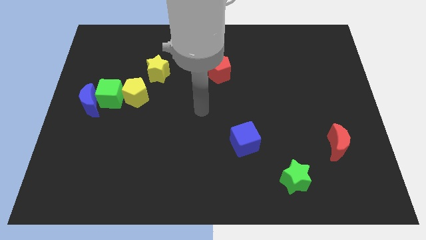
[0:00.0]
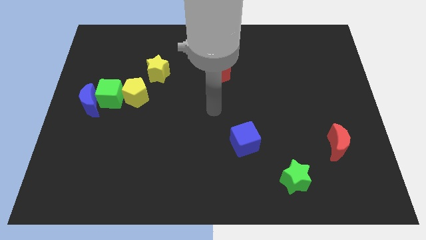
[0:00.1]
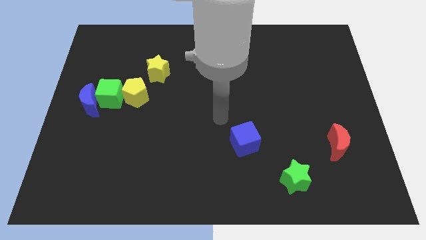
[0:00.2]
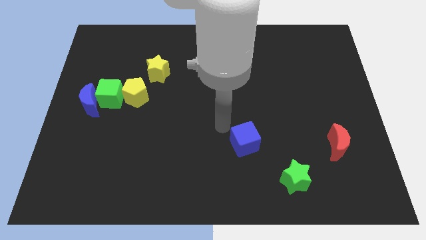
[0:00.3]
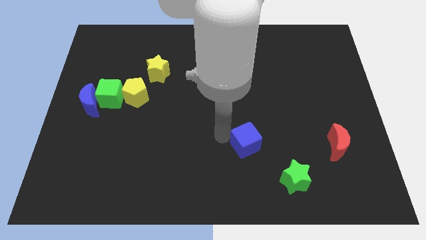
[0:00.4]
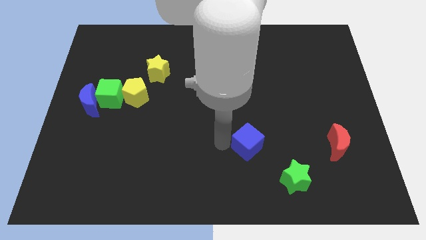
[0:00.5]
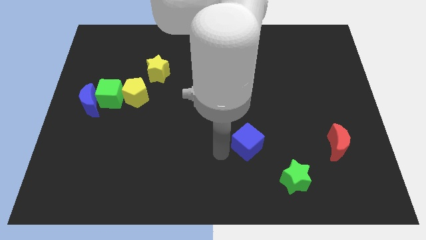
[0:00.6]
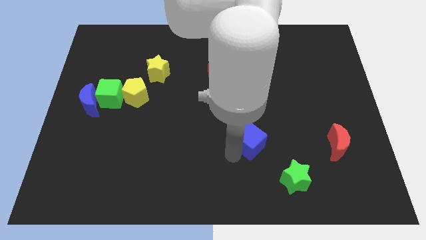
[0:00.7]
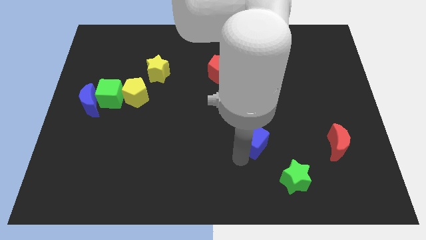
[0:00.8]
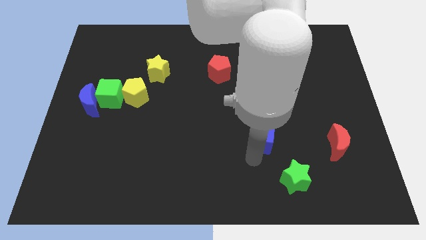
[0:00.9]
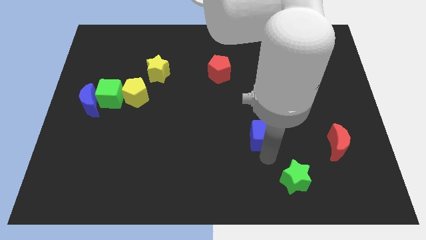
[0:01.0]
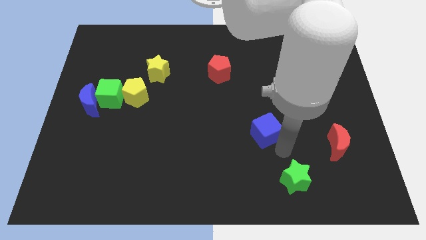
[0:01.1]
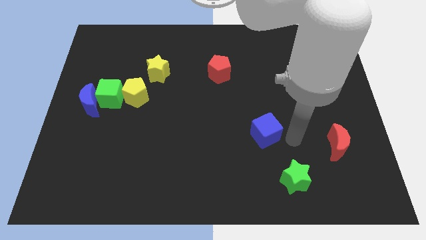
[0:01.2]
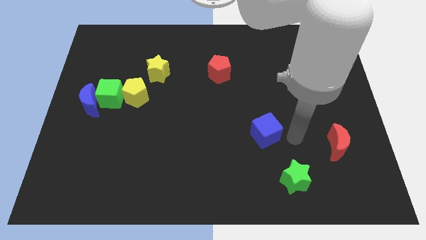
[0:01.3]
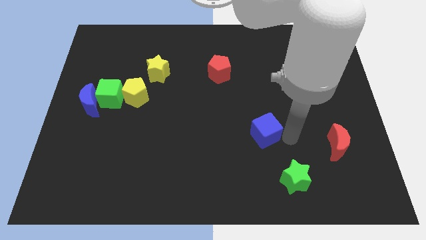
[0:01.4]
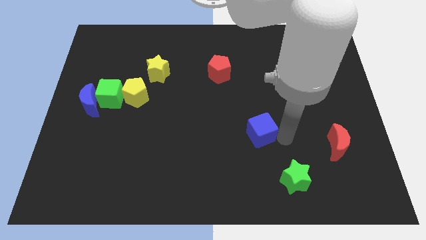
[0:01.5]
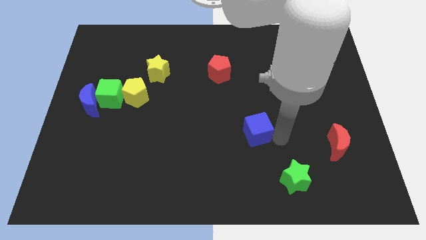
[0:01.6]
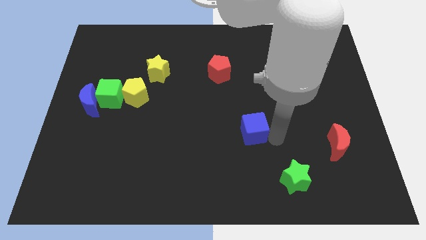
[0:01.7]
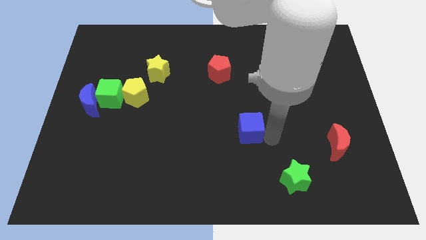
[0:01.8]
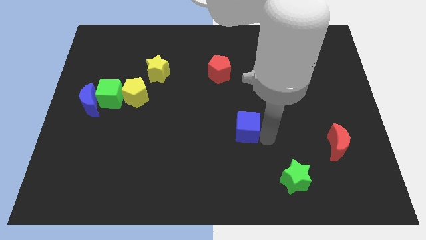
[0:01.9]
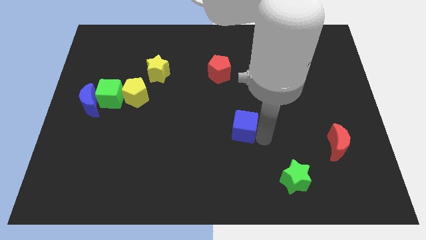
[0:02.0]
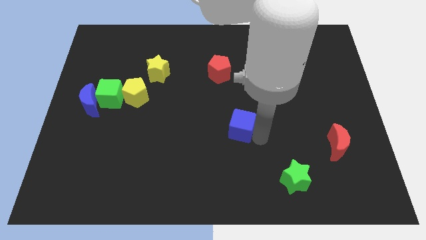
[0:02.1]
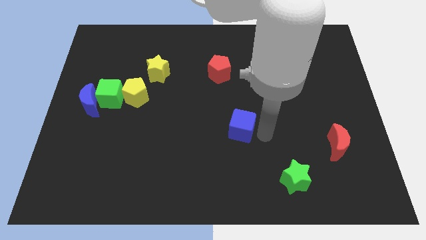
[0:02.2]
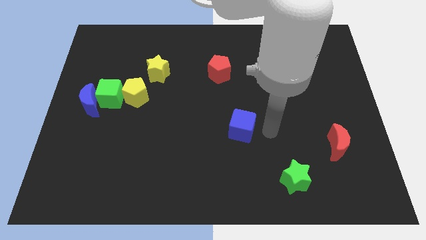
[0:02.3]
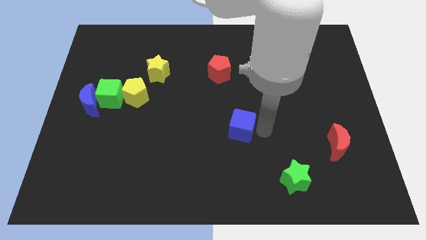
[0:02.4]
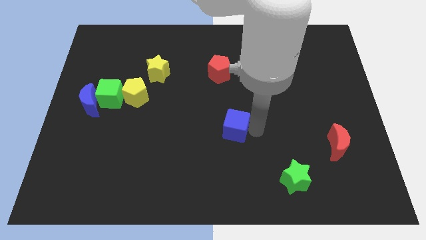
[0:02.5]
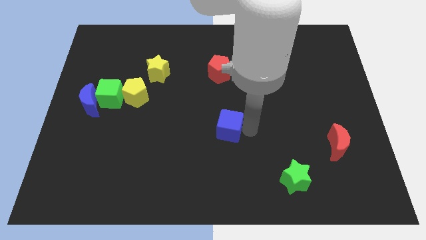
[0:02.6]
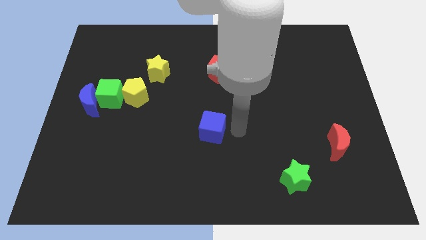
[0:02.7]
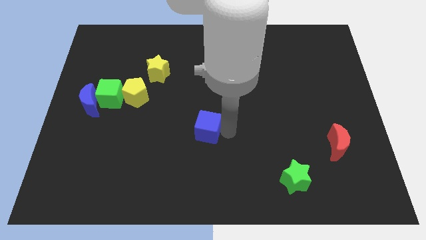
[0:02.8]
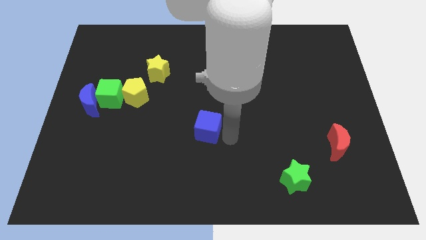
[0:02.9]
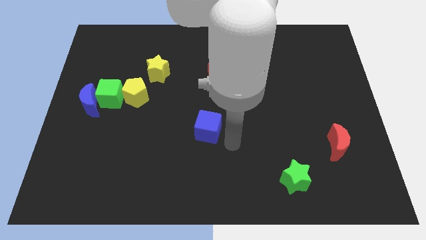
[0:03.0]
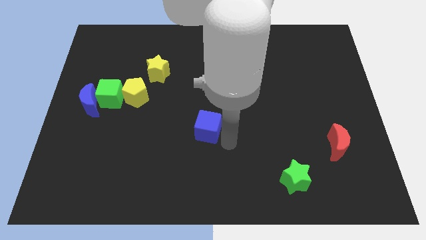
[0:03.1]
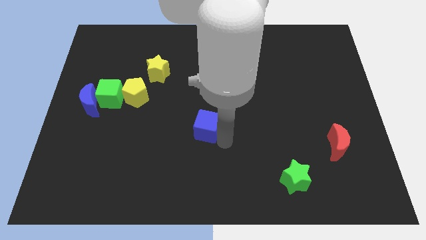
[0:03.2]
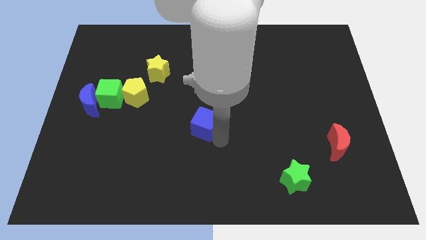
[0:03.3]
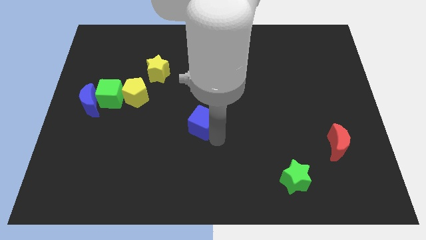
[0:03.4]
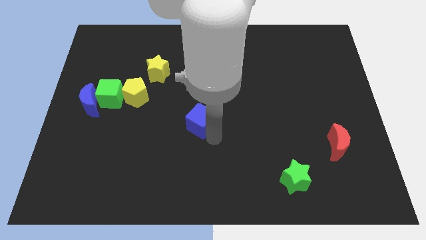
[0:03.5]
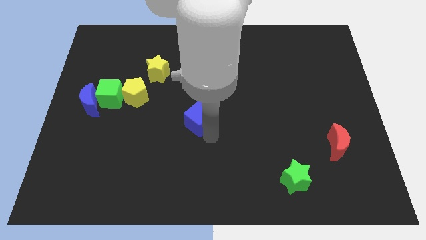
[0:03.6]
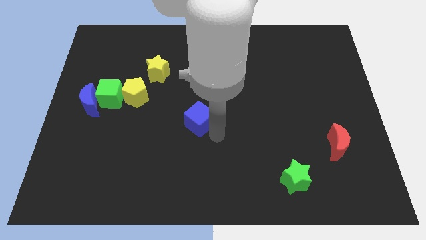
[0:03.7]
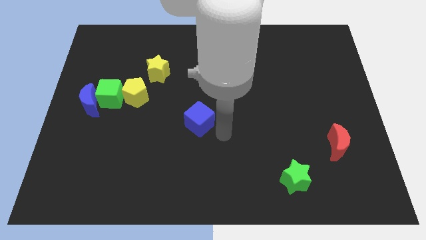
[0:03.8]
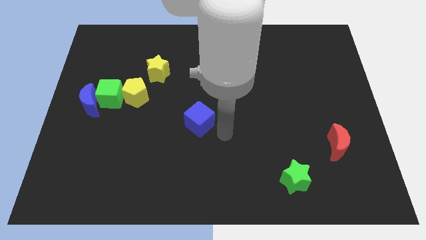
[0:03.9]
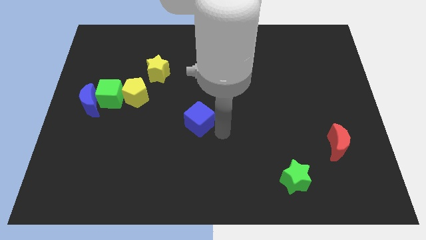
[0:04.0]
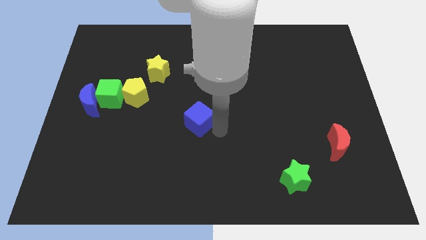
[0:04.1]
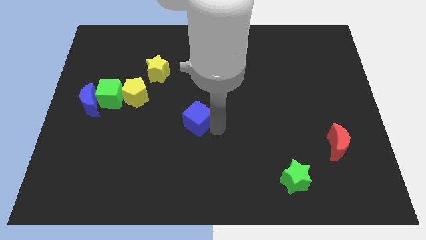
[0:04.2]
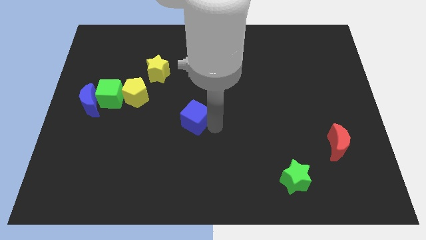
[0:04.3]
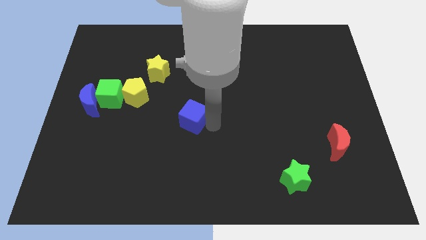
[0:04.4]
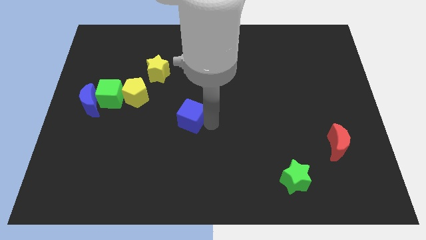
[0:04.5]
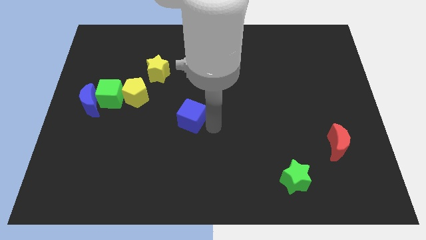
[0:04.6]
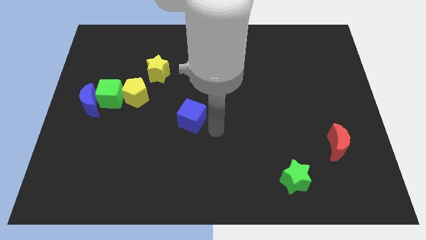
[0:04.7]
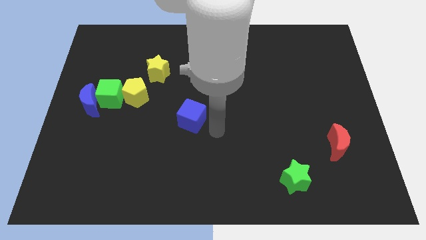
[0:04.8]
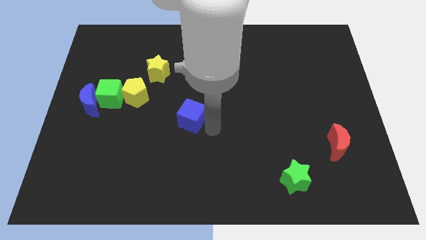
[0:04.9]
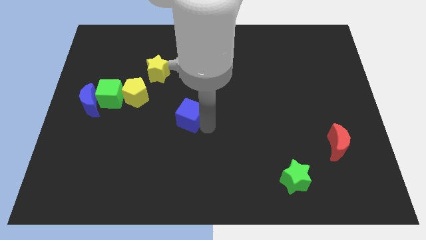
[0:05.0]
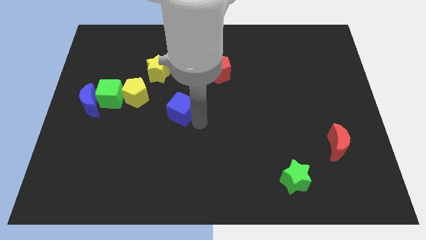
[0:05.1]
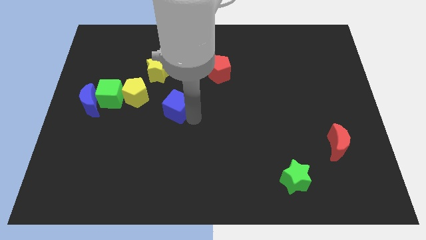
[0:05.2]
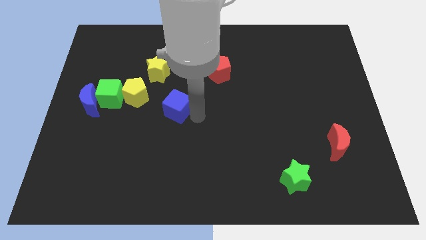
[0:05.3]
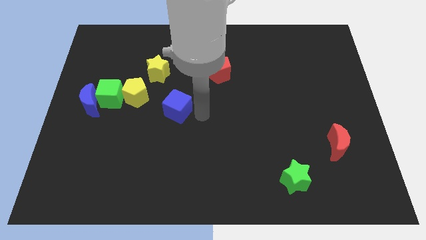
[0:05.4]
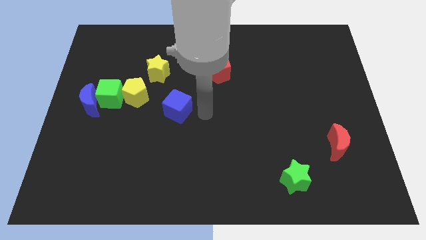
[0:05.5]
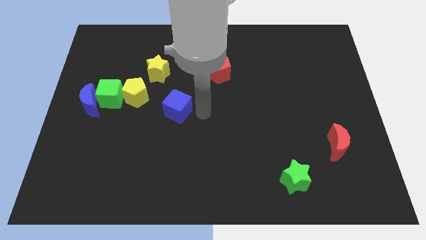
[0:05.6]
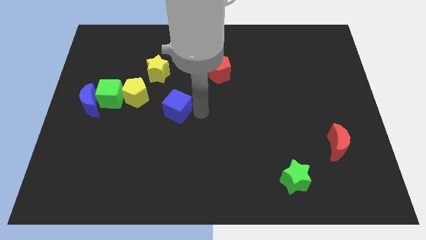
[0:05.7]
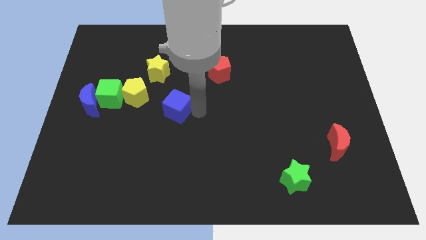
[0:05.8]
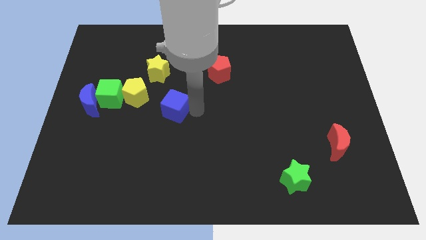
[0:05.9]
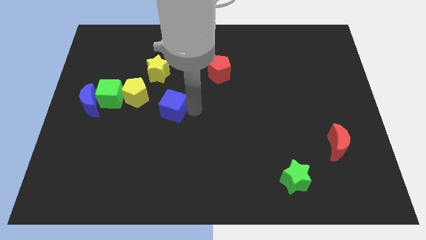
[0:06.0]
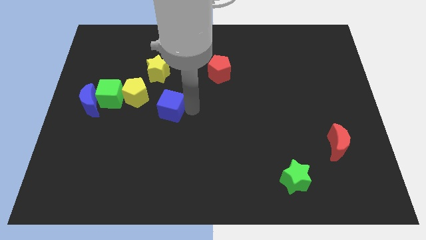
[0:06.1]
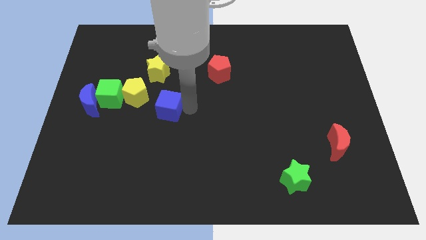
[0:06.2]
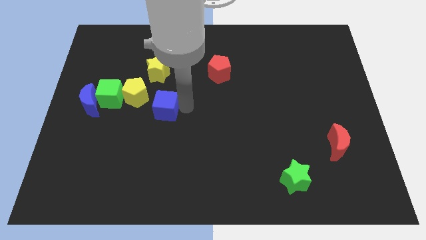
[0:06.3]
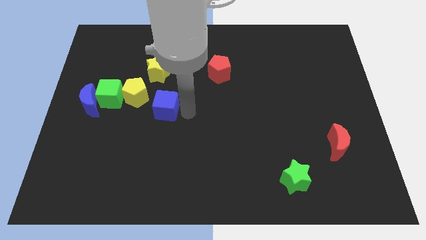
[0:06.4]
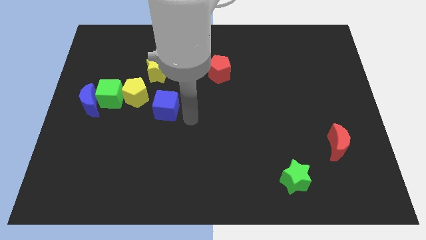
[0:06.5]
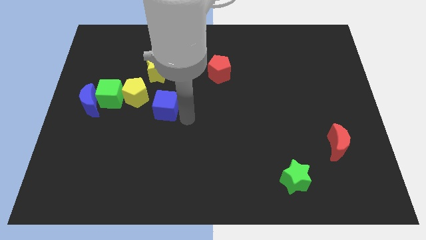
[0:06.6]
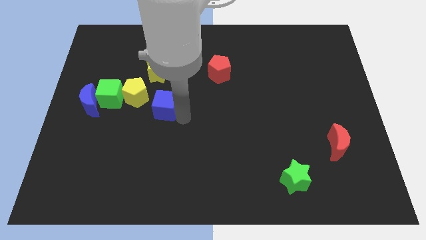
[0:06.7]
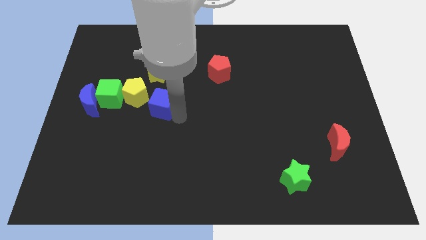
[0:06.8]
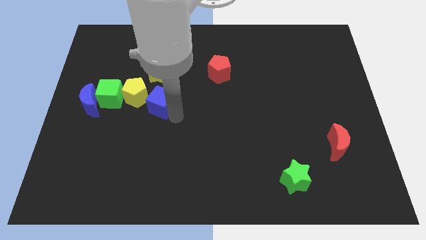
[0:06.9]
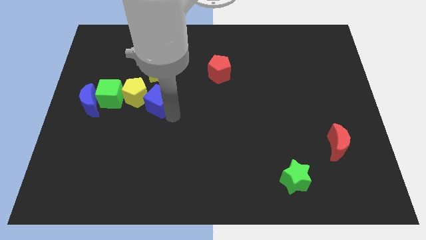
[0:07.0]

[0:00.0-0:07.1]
slide the blue cube next to the yellow pentagon
